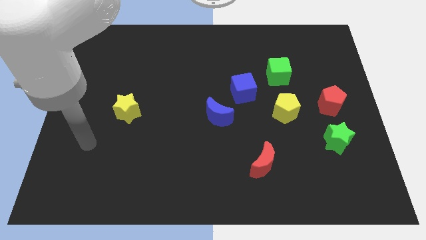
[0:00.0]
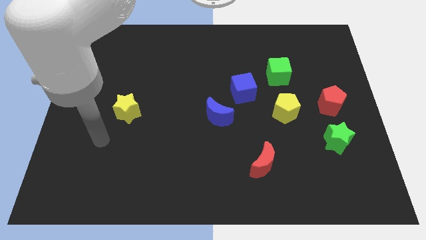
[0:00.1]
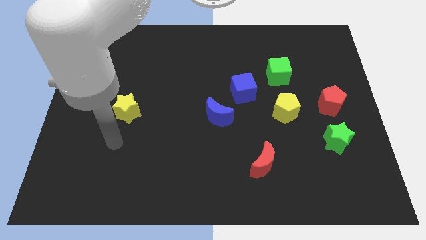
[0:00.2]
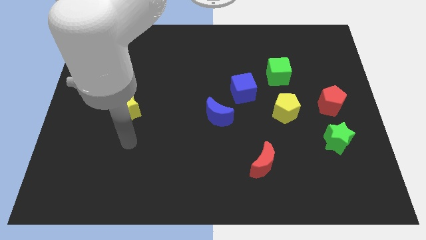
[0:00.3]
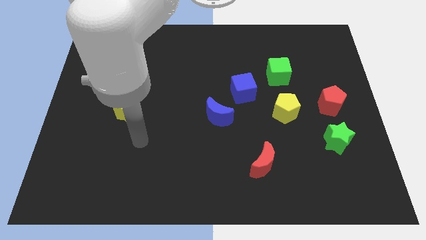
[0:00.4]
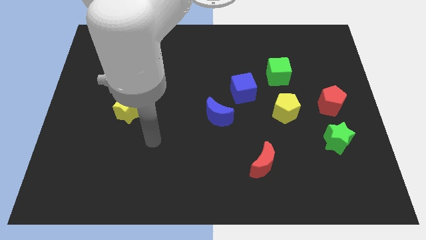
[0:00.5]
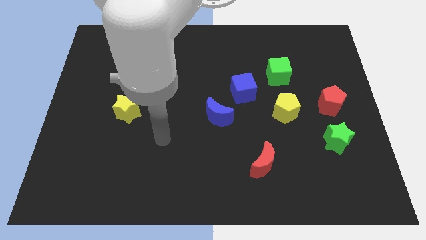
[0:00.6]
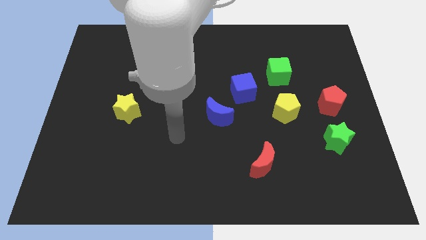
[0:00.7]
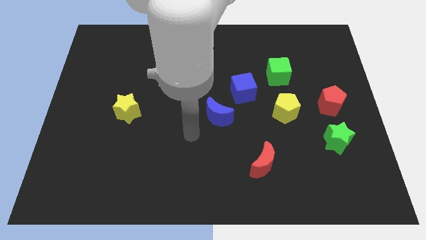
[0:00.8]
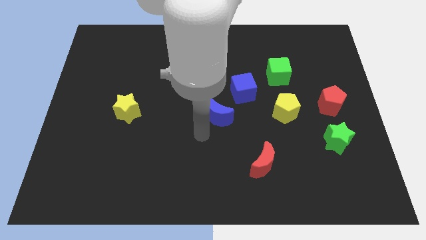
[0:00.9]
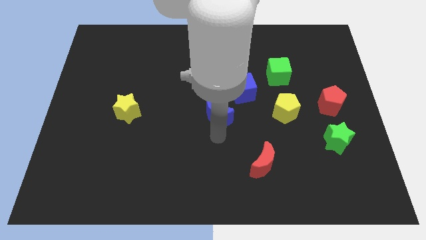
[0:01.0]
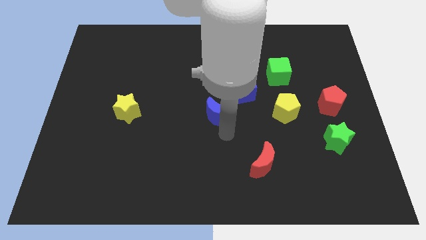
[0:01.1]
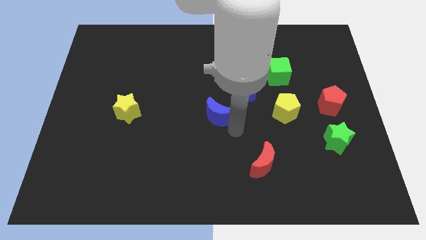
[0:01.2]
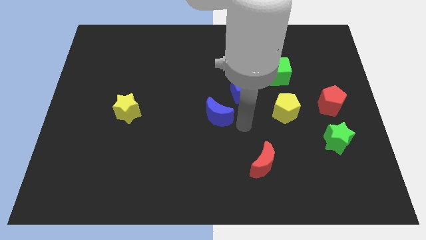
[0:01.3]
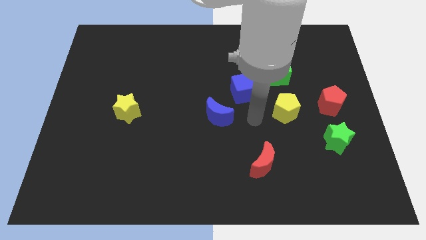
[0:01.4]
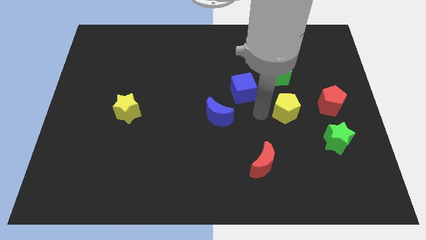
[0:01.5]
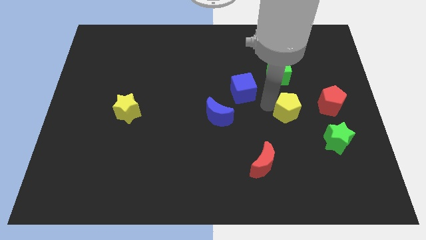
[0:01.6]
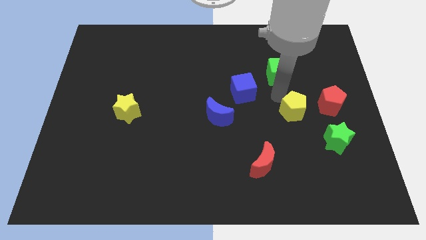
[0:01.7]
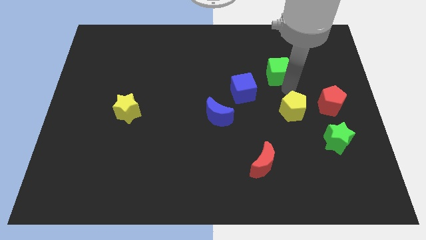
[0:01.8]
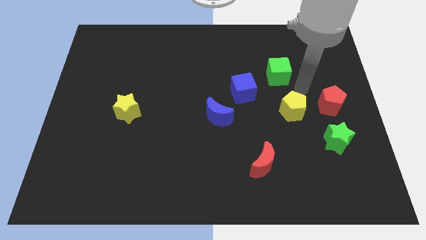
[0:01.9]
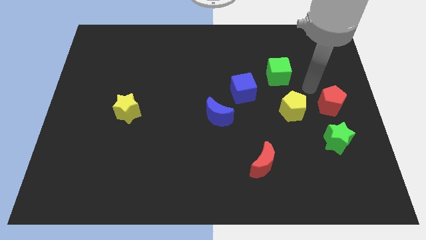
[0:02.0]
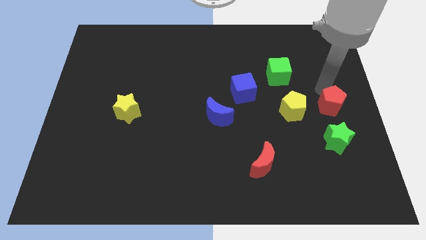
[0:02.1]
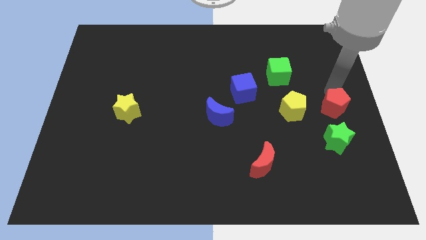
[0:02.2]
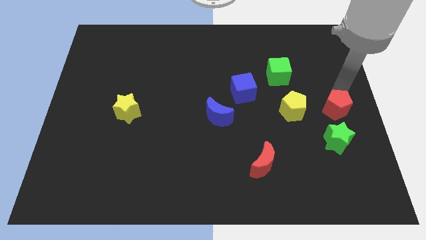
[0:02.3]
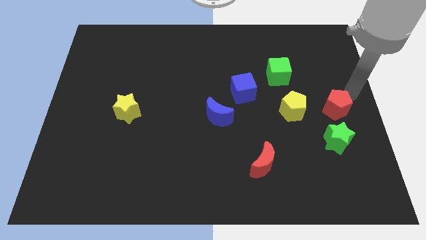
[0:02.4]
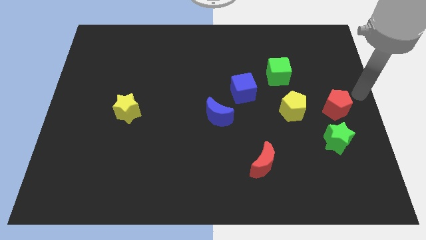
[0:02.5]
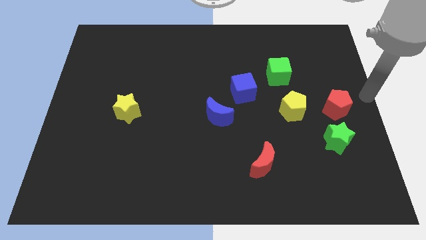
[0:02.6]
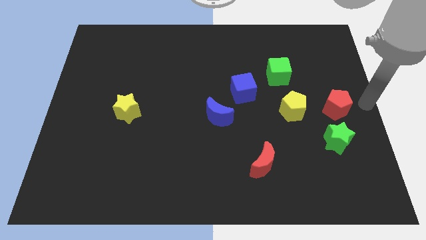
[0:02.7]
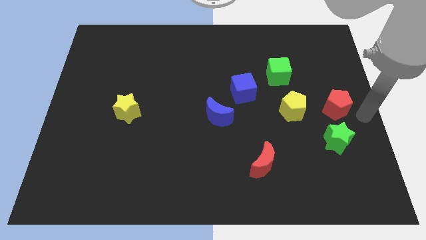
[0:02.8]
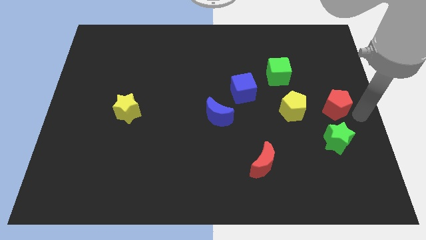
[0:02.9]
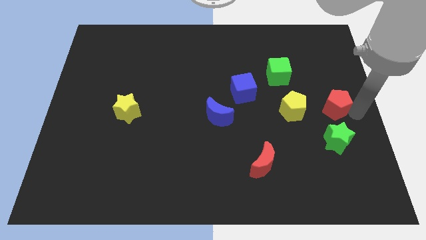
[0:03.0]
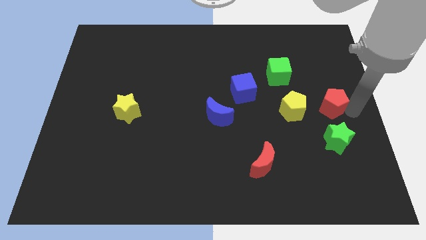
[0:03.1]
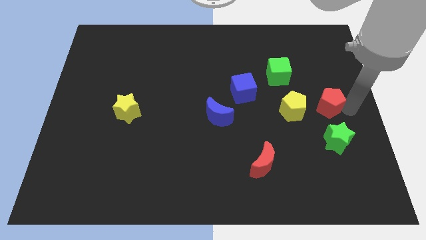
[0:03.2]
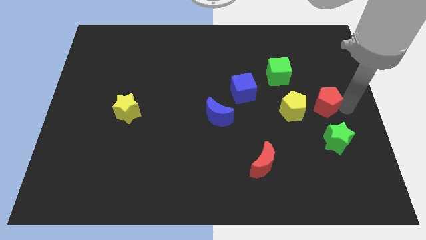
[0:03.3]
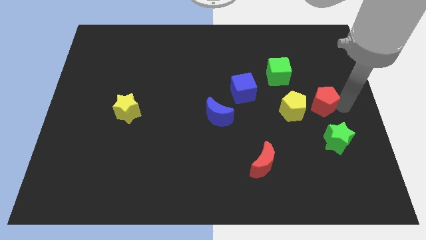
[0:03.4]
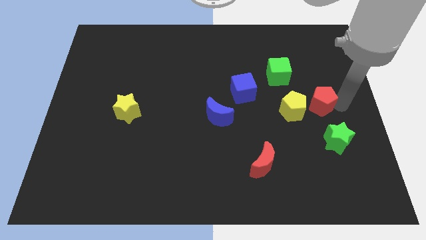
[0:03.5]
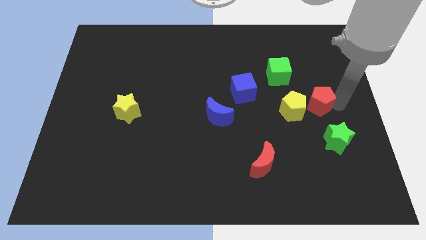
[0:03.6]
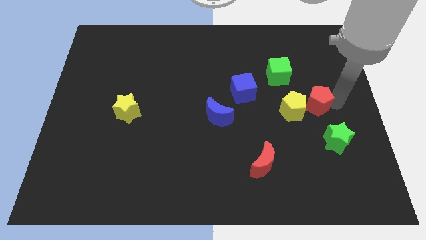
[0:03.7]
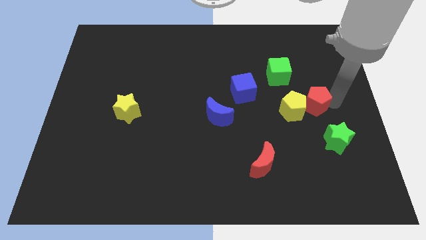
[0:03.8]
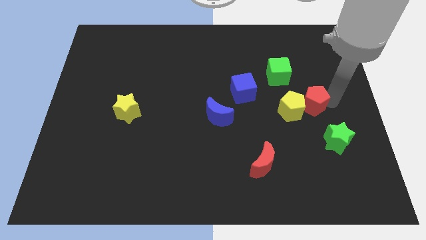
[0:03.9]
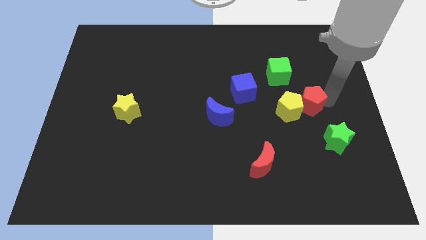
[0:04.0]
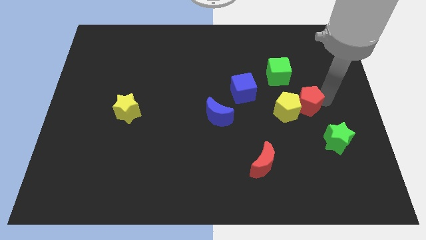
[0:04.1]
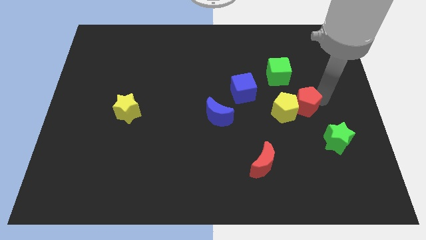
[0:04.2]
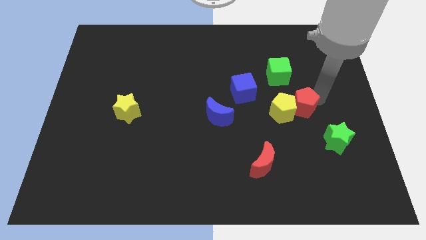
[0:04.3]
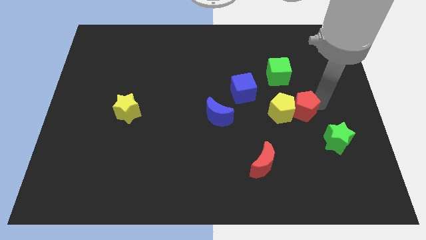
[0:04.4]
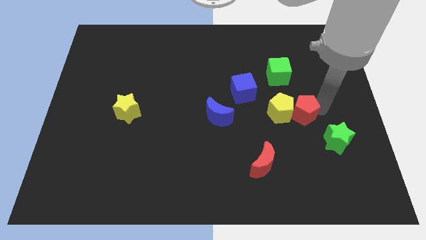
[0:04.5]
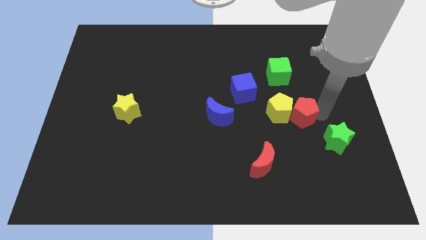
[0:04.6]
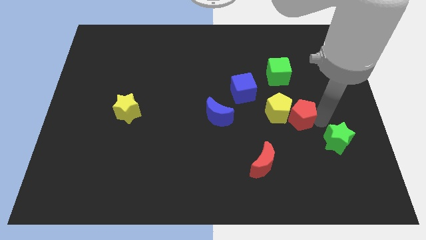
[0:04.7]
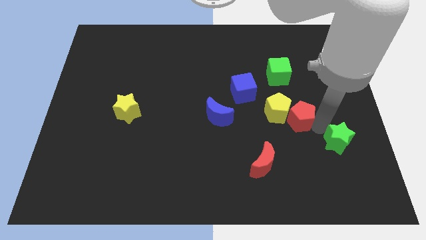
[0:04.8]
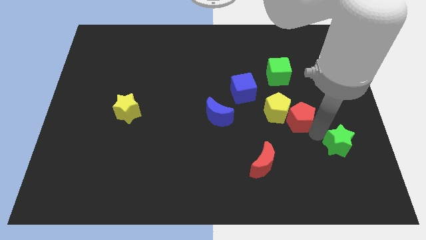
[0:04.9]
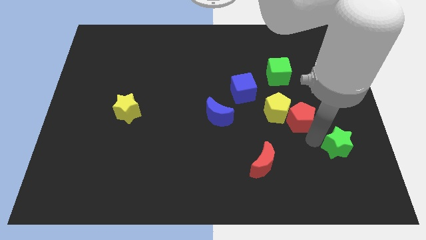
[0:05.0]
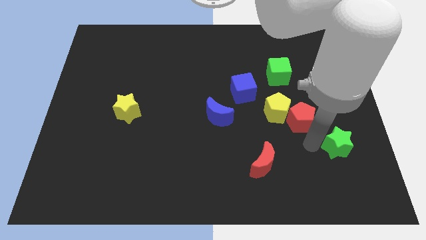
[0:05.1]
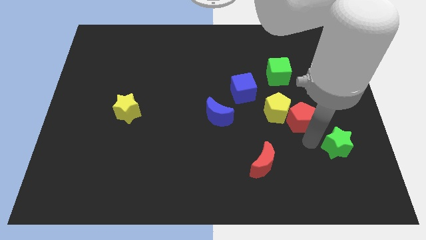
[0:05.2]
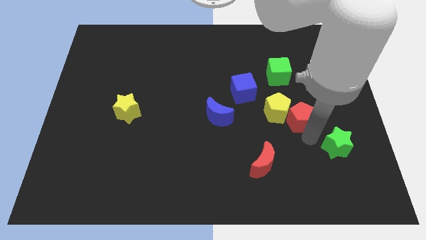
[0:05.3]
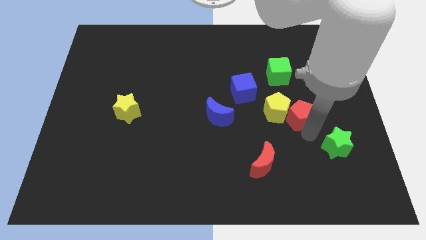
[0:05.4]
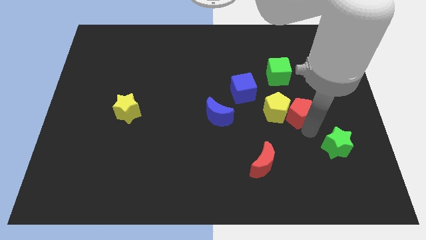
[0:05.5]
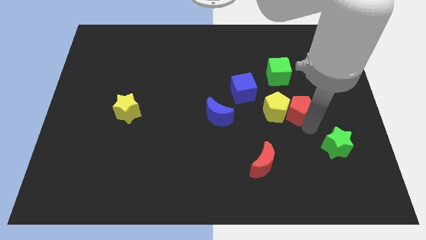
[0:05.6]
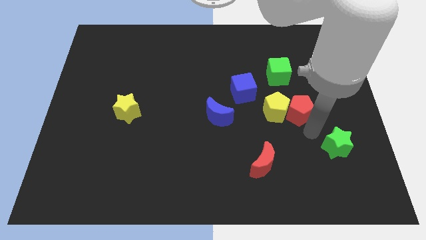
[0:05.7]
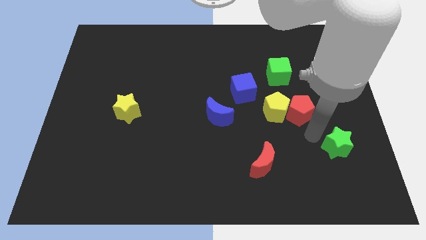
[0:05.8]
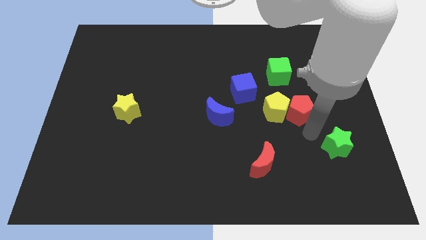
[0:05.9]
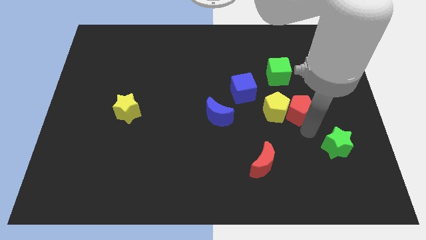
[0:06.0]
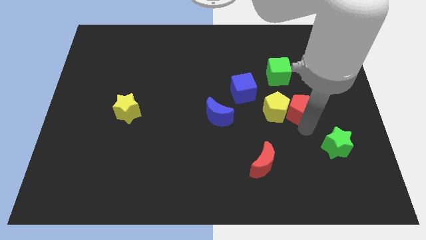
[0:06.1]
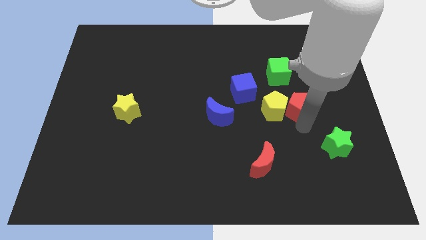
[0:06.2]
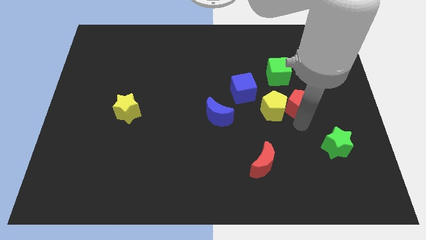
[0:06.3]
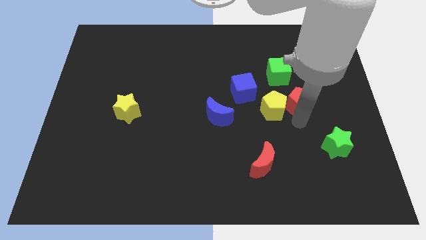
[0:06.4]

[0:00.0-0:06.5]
slide the red pentagon just right of the blue cube
